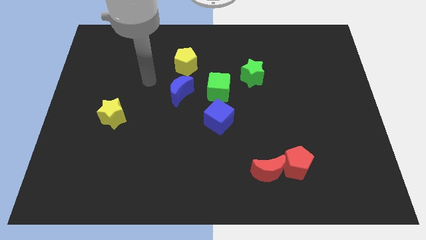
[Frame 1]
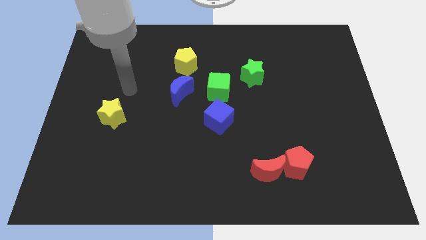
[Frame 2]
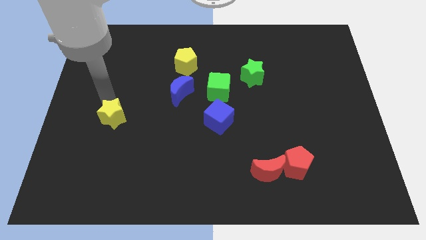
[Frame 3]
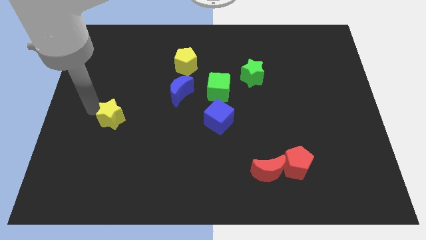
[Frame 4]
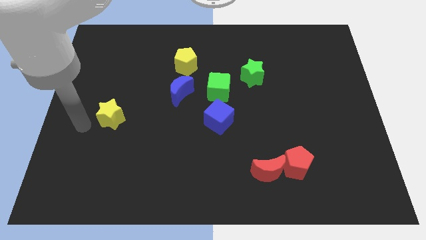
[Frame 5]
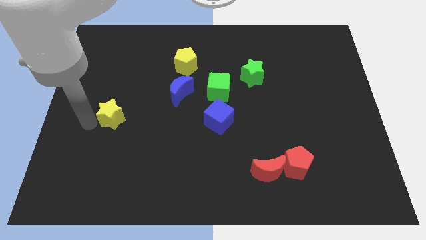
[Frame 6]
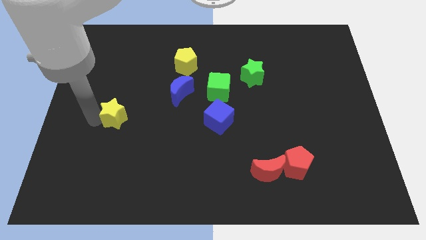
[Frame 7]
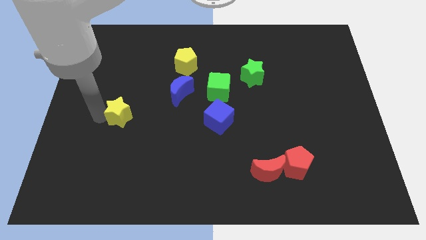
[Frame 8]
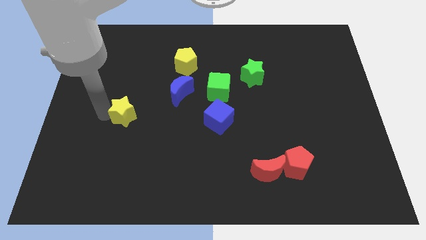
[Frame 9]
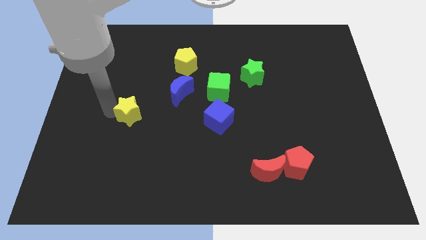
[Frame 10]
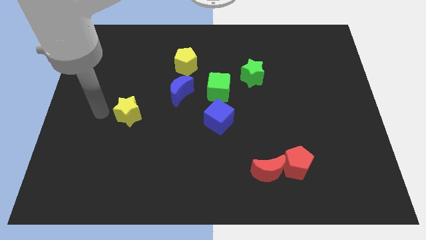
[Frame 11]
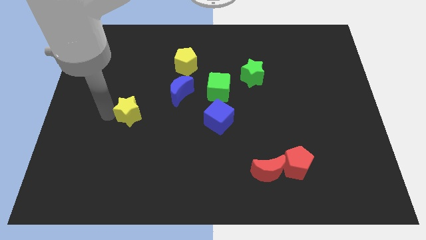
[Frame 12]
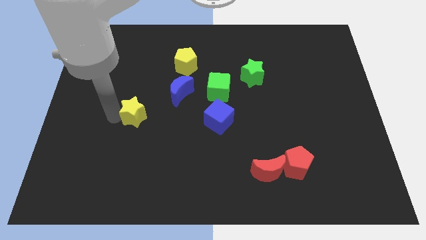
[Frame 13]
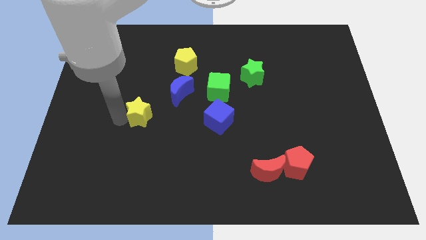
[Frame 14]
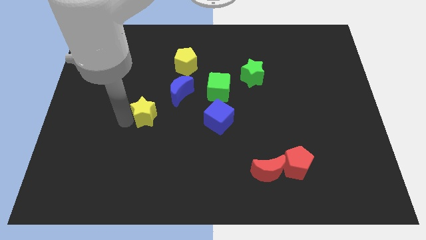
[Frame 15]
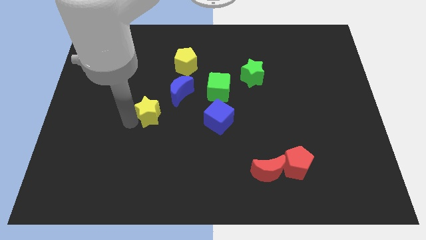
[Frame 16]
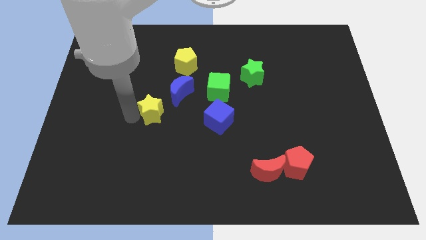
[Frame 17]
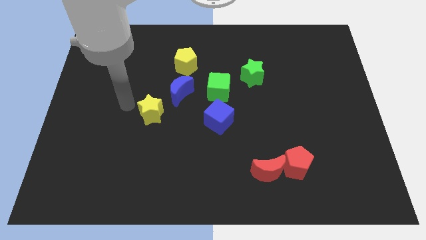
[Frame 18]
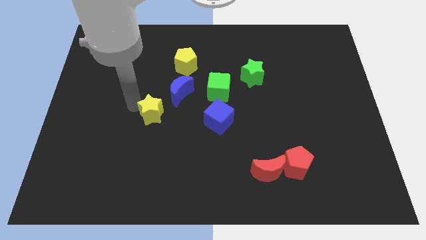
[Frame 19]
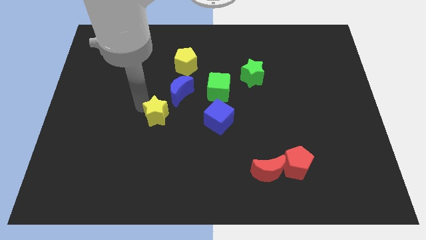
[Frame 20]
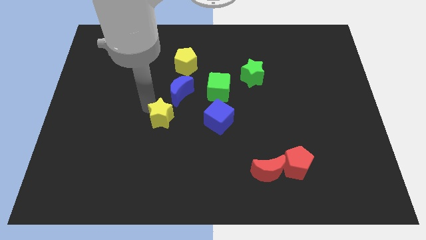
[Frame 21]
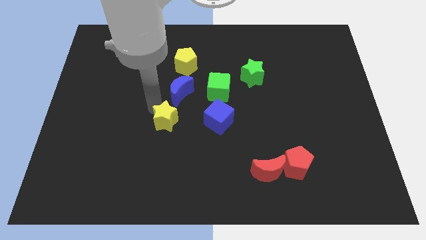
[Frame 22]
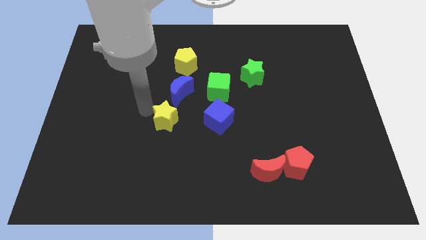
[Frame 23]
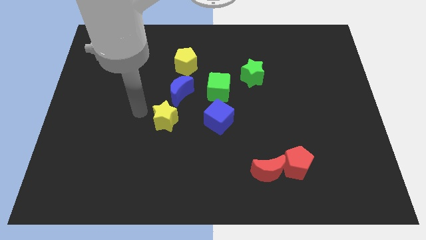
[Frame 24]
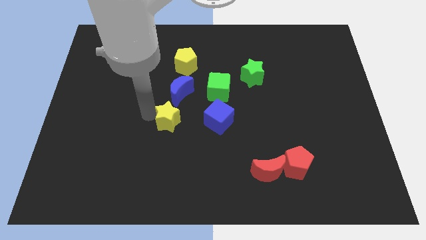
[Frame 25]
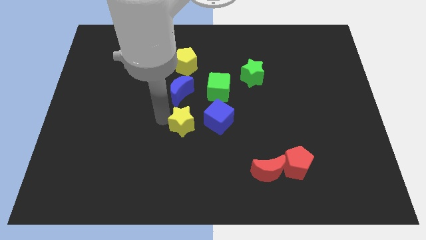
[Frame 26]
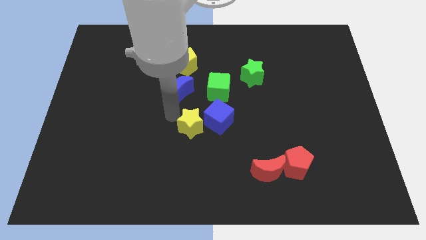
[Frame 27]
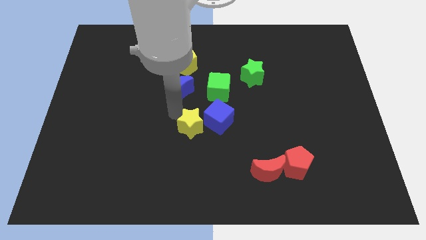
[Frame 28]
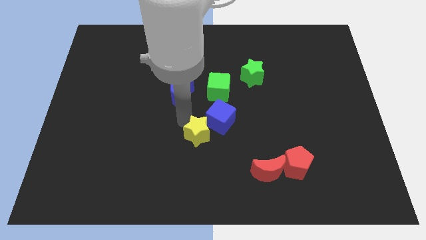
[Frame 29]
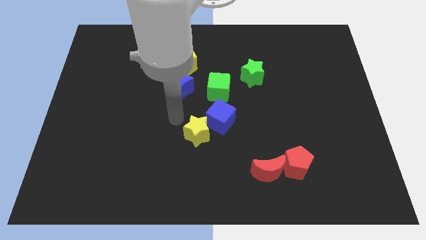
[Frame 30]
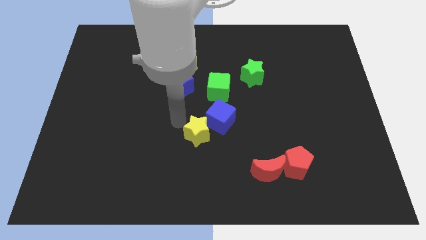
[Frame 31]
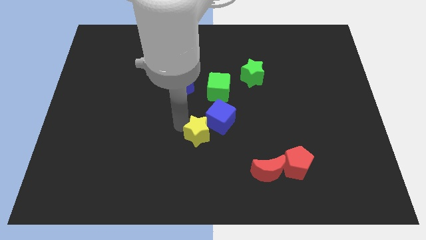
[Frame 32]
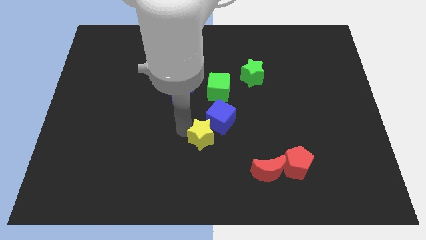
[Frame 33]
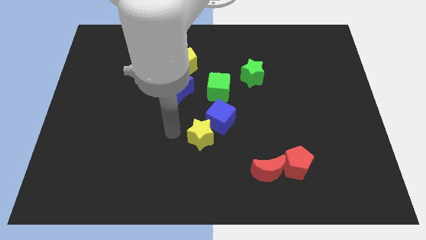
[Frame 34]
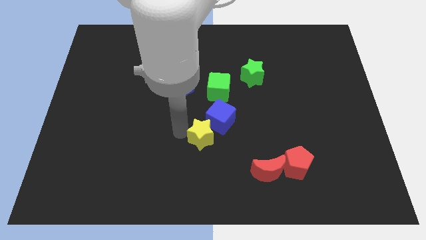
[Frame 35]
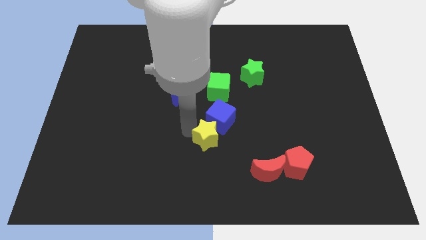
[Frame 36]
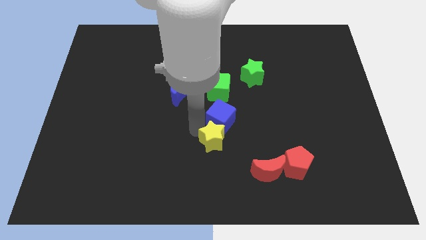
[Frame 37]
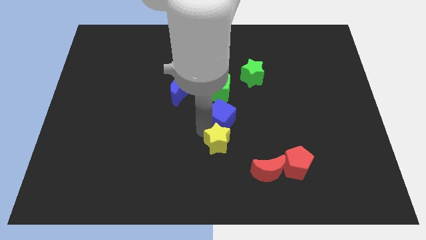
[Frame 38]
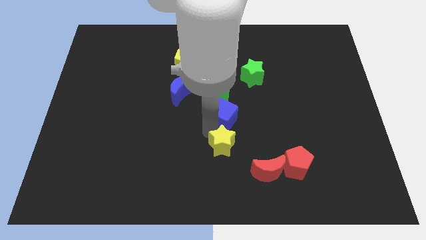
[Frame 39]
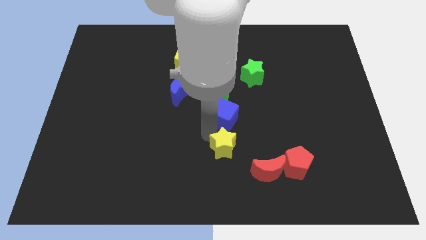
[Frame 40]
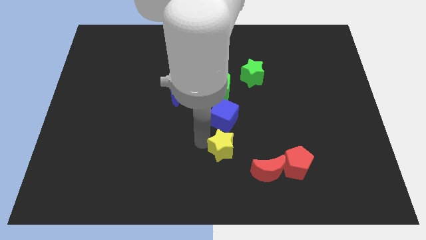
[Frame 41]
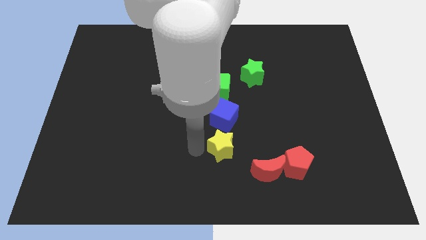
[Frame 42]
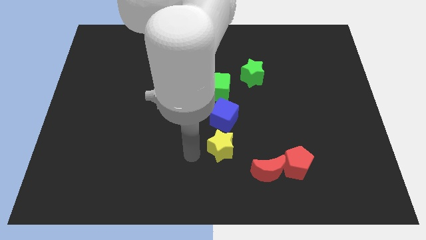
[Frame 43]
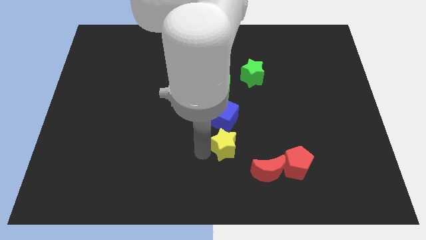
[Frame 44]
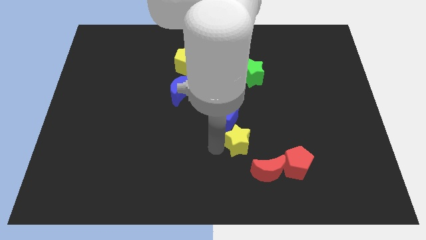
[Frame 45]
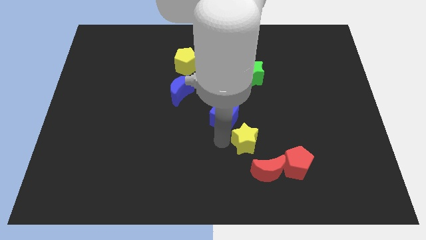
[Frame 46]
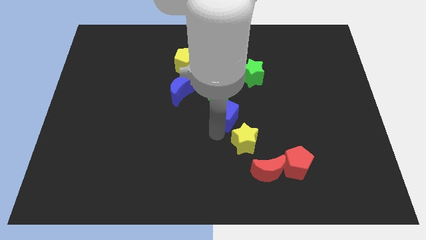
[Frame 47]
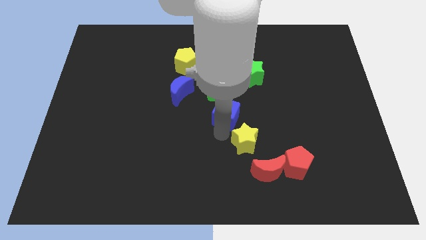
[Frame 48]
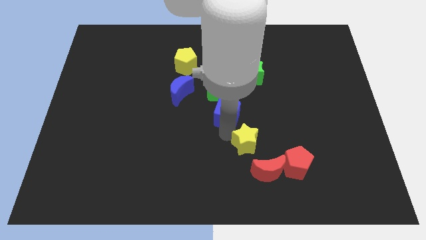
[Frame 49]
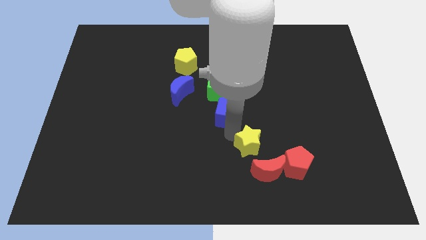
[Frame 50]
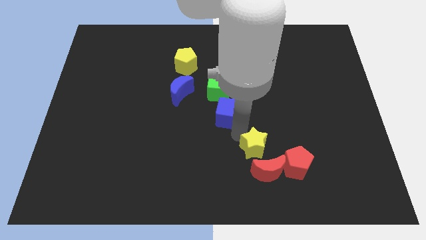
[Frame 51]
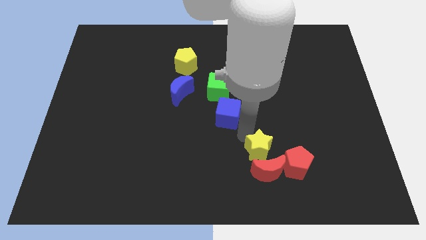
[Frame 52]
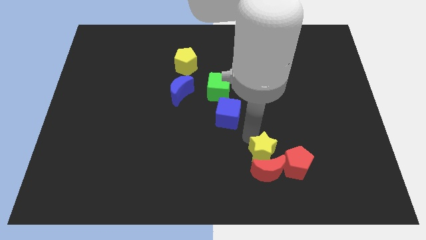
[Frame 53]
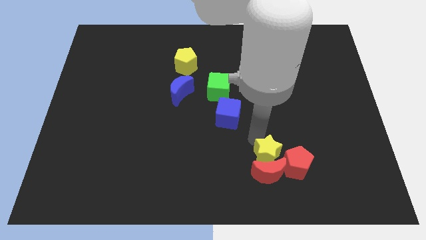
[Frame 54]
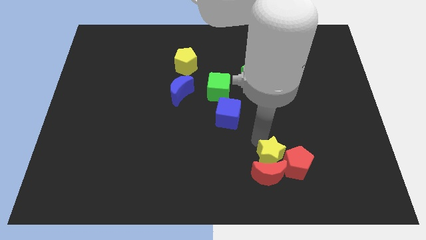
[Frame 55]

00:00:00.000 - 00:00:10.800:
move the yellow star towards the red pentagon

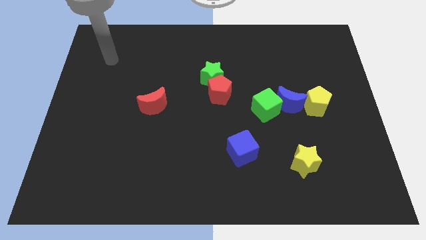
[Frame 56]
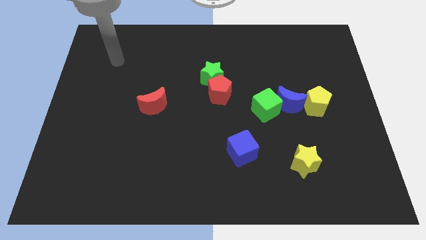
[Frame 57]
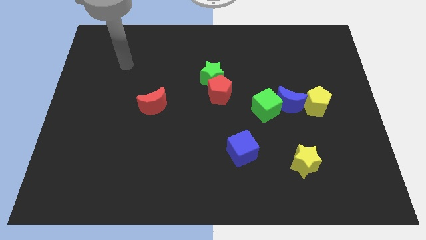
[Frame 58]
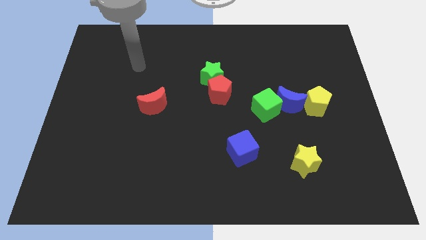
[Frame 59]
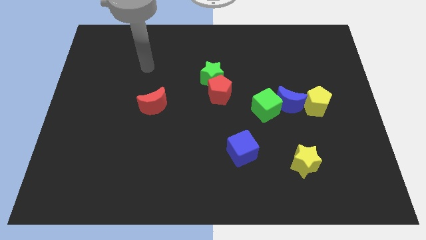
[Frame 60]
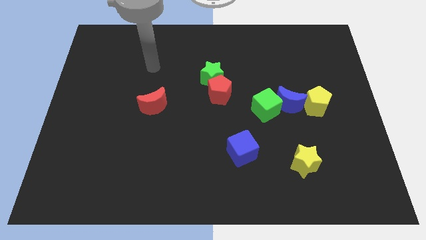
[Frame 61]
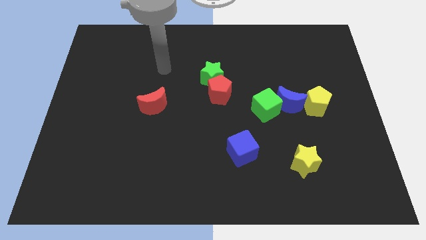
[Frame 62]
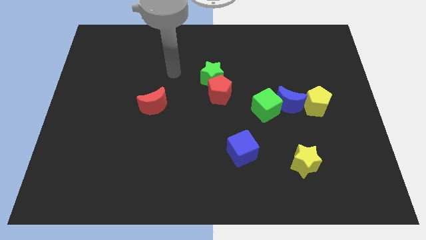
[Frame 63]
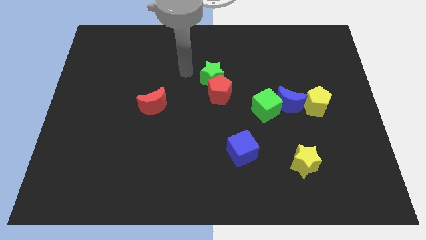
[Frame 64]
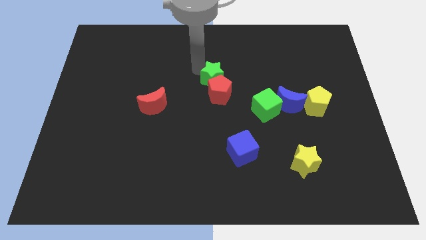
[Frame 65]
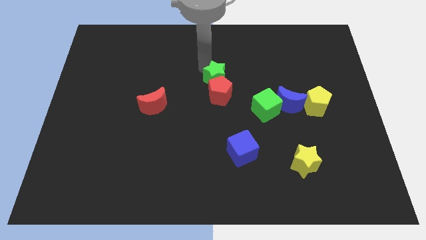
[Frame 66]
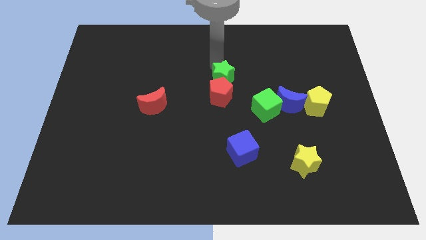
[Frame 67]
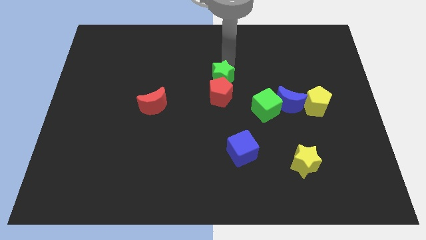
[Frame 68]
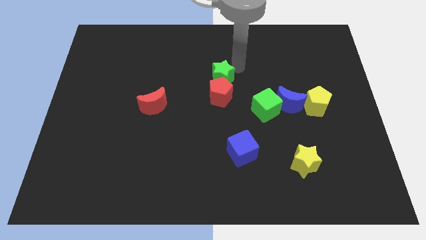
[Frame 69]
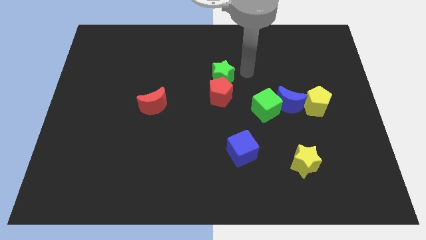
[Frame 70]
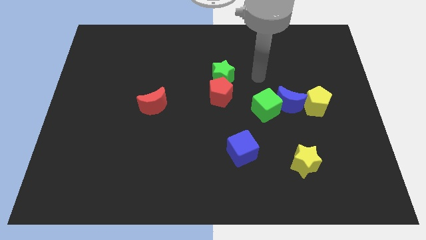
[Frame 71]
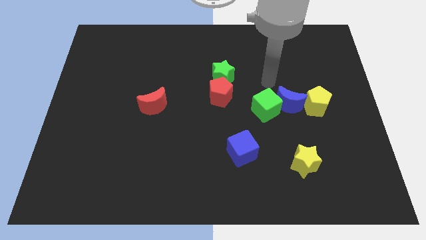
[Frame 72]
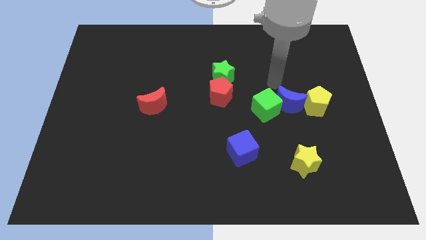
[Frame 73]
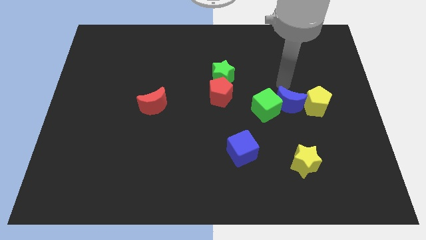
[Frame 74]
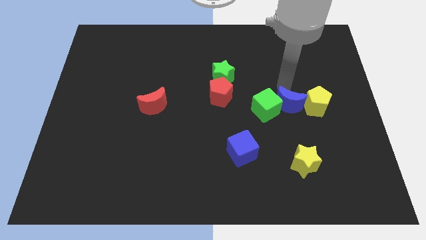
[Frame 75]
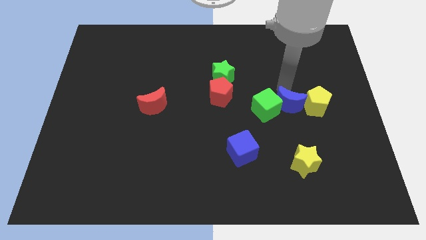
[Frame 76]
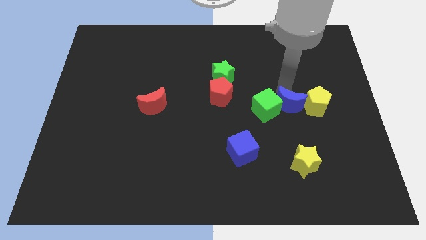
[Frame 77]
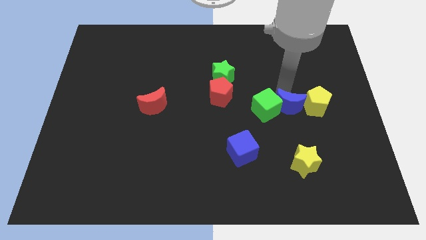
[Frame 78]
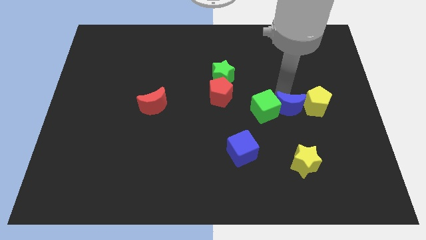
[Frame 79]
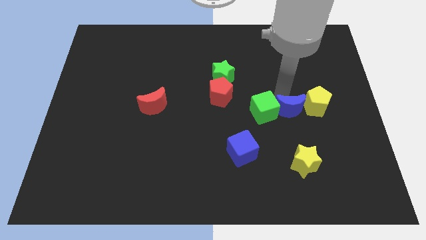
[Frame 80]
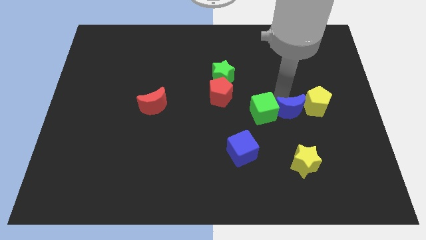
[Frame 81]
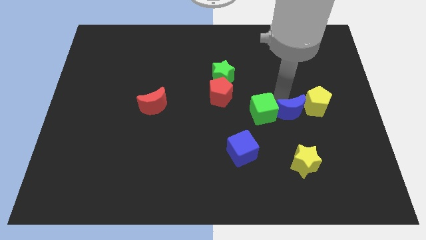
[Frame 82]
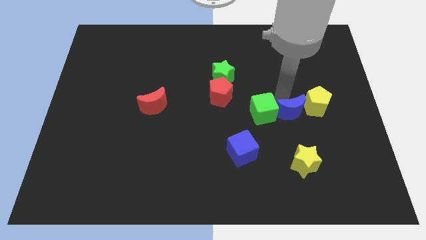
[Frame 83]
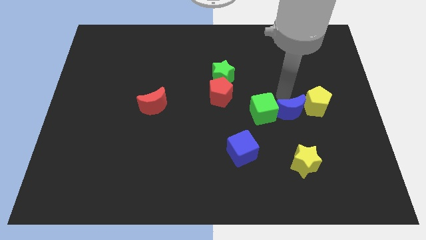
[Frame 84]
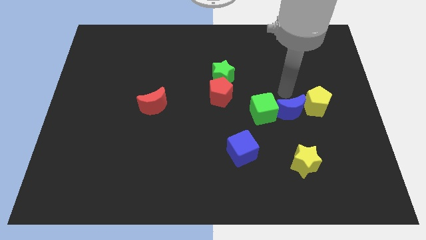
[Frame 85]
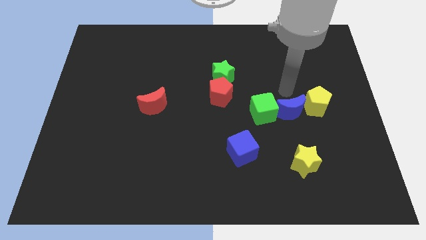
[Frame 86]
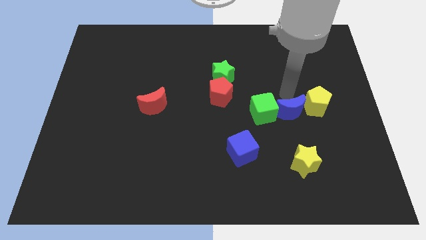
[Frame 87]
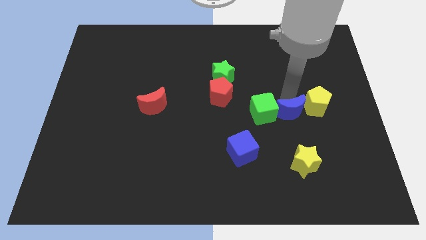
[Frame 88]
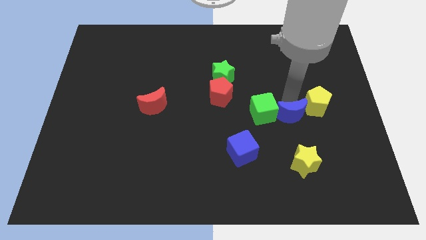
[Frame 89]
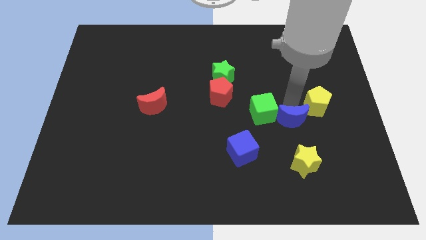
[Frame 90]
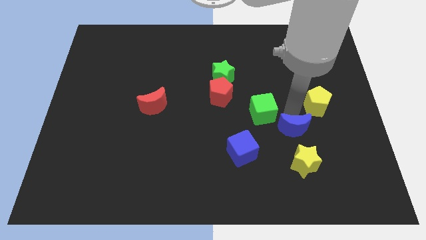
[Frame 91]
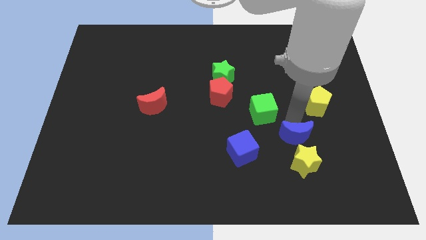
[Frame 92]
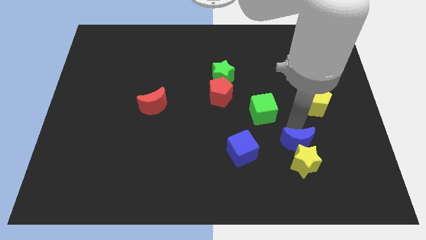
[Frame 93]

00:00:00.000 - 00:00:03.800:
move the blue moon next to the yellow star
